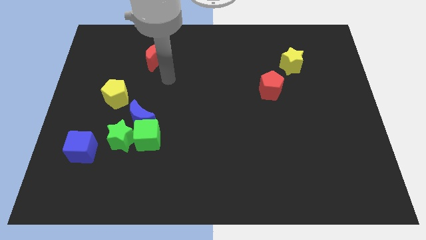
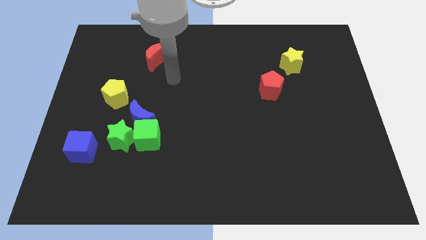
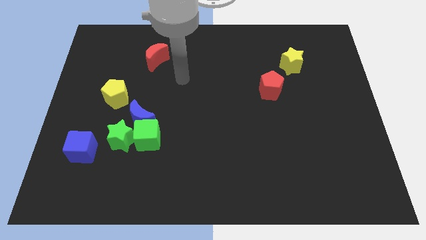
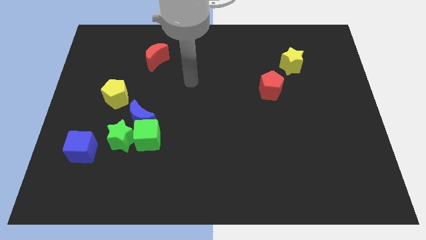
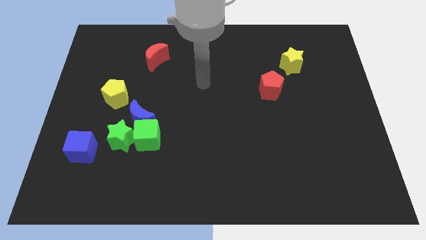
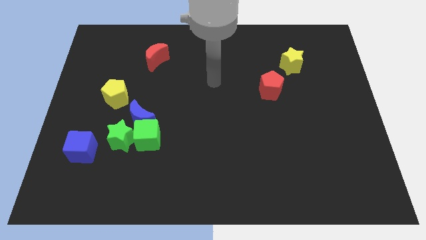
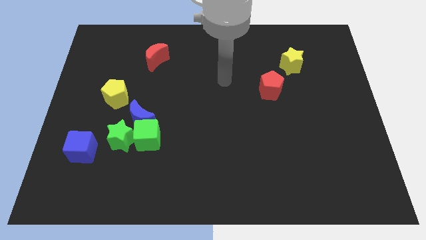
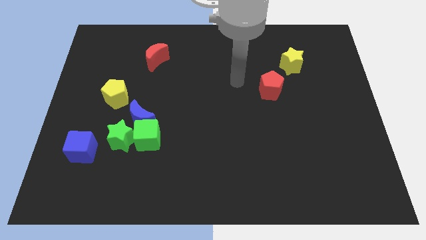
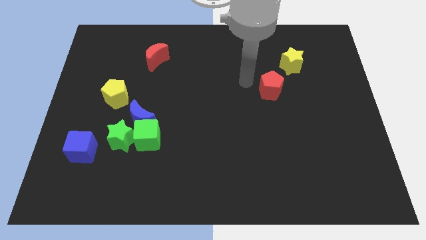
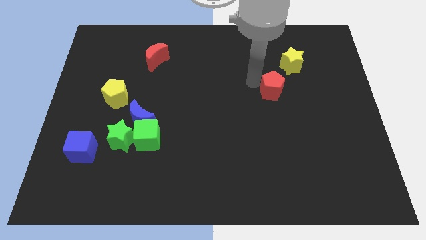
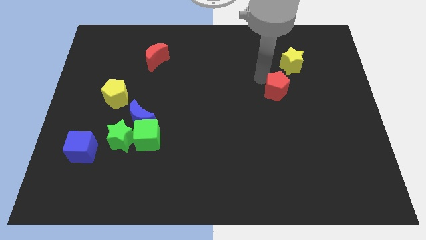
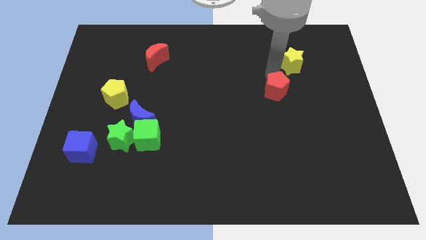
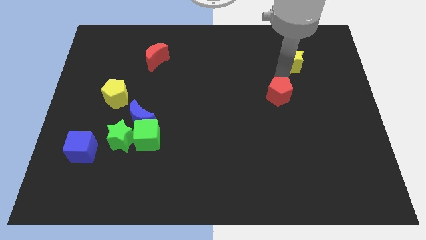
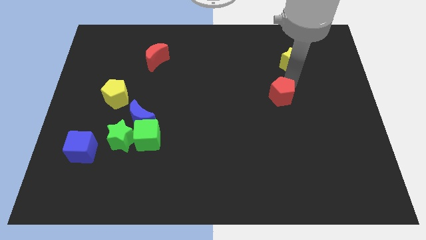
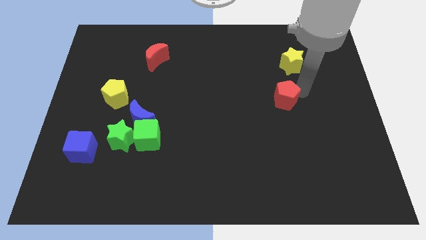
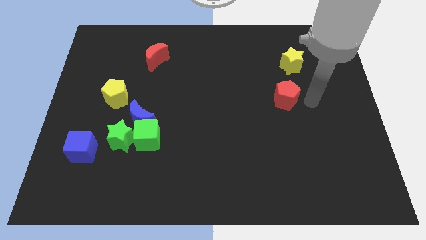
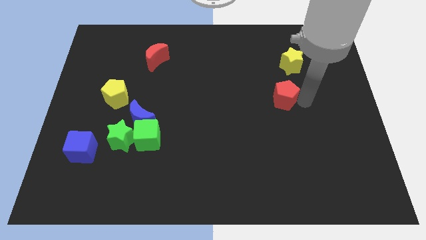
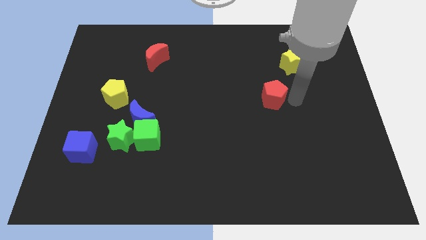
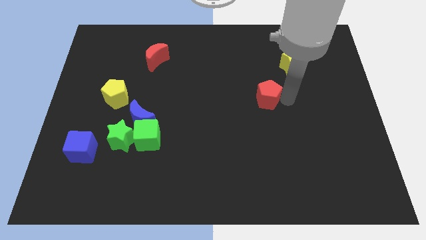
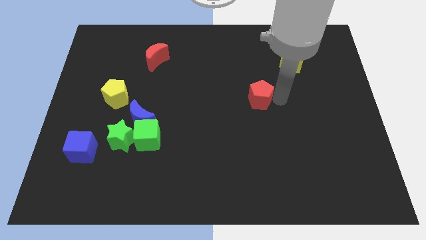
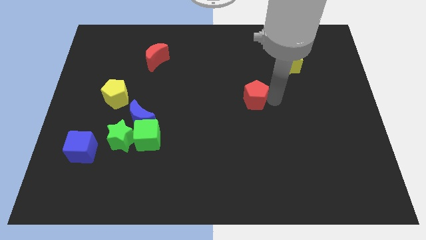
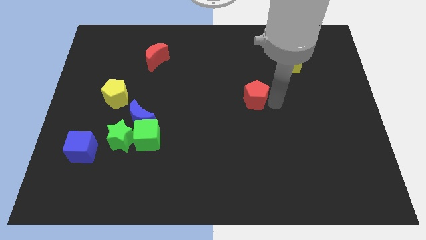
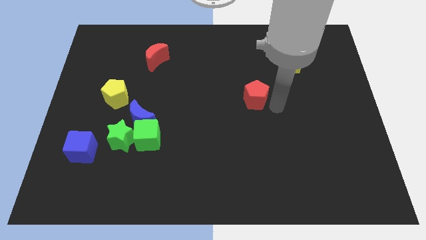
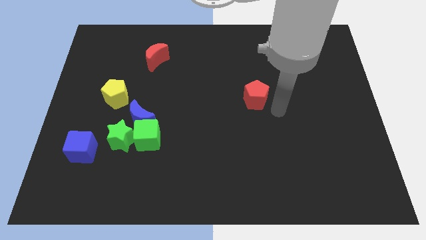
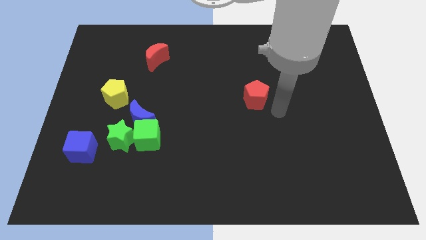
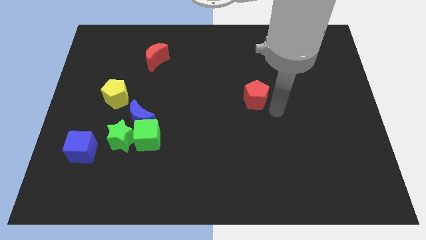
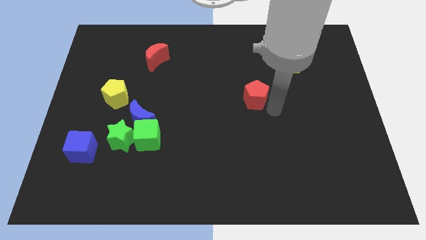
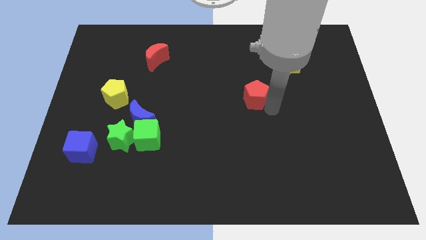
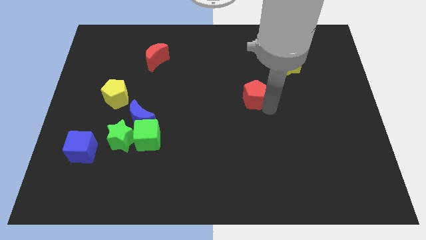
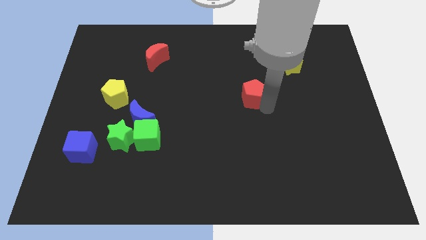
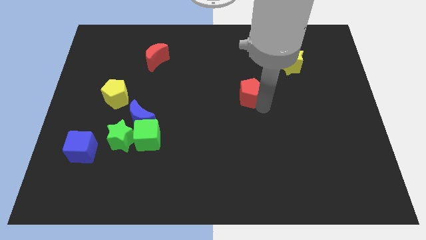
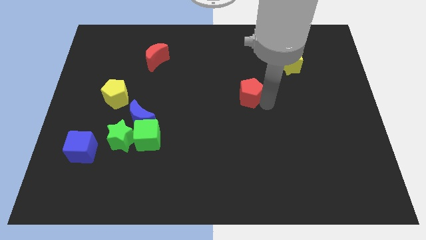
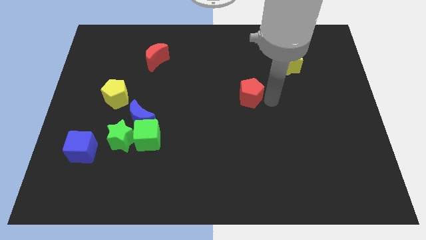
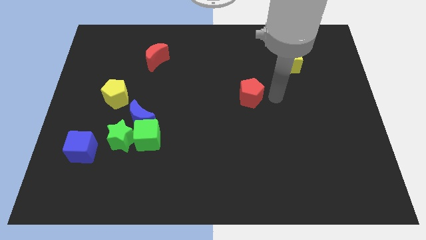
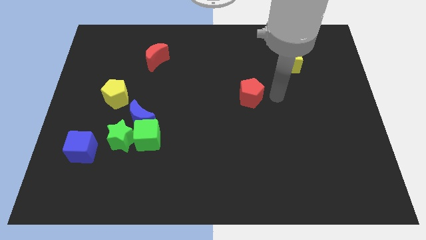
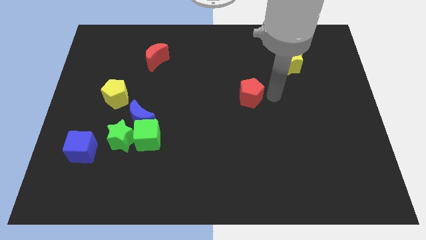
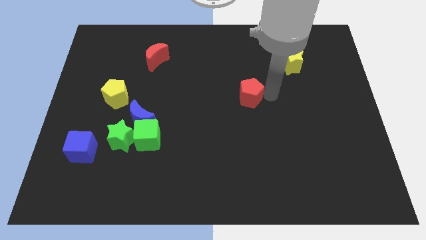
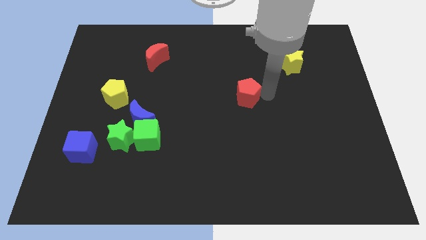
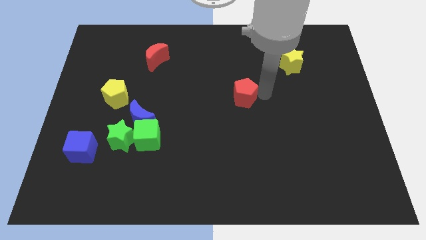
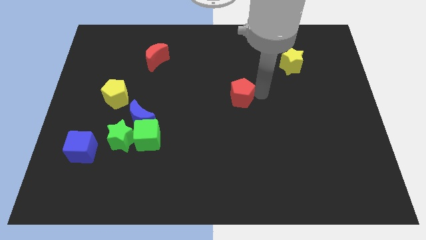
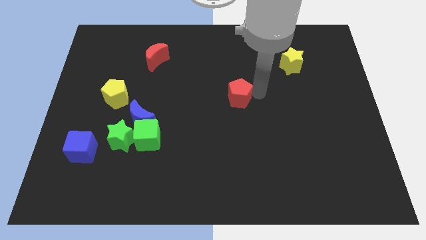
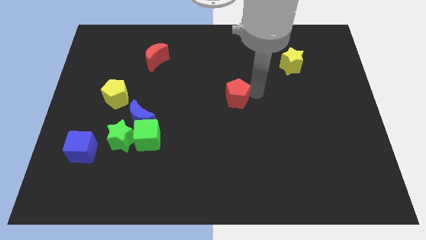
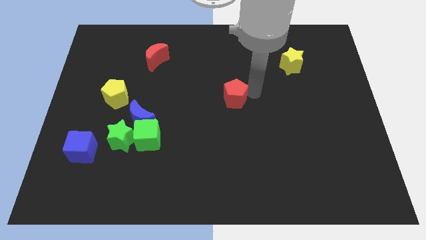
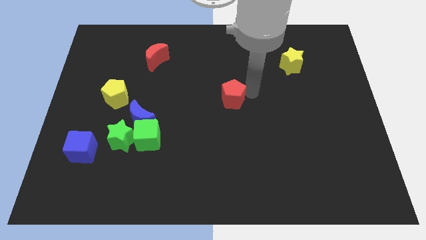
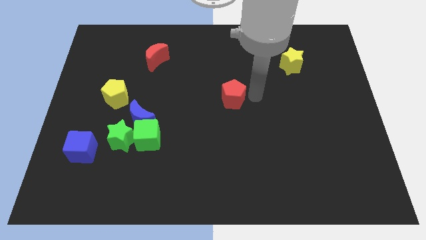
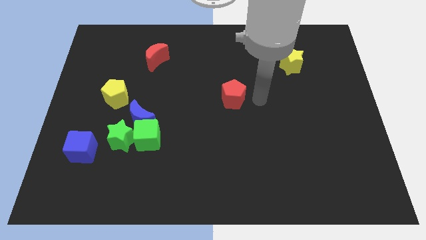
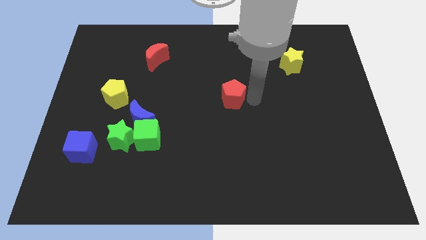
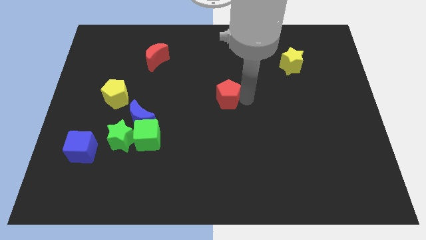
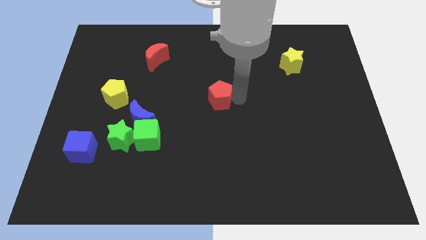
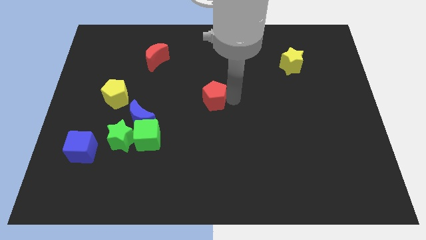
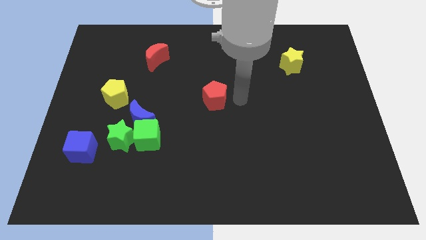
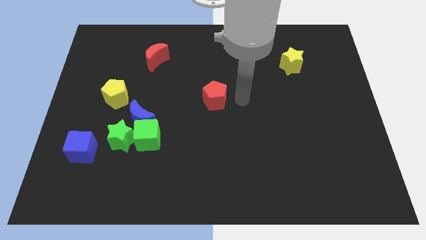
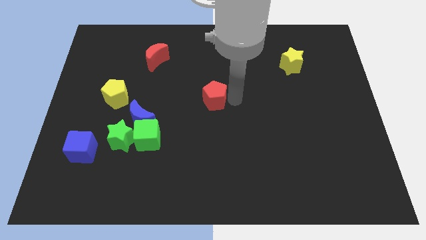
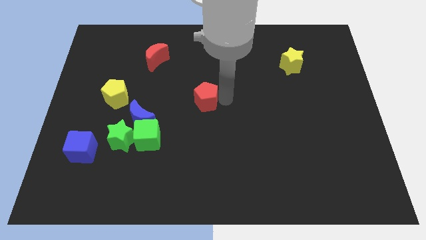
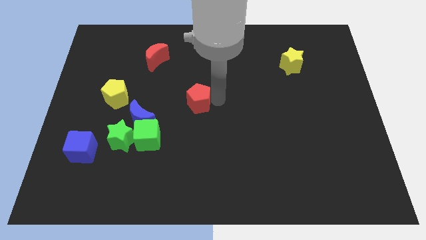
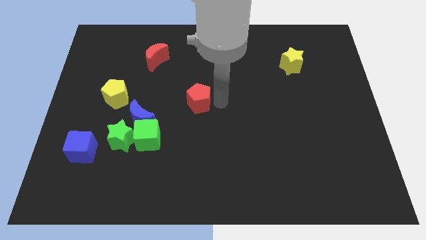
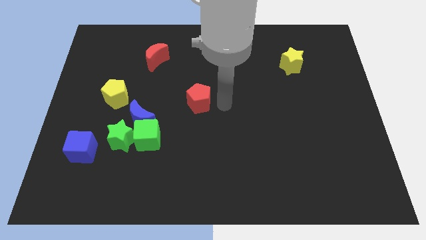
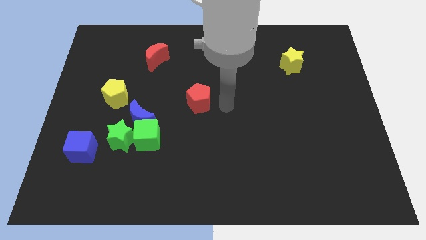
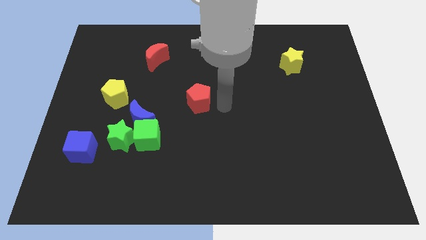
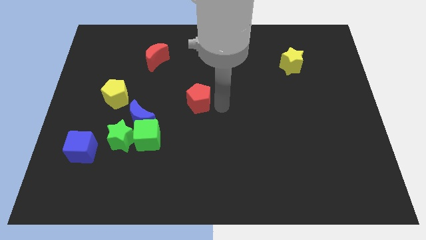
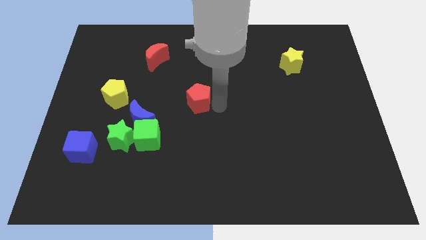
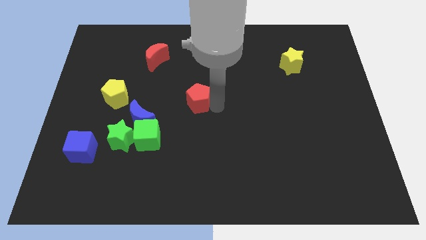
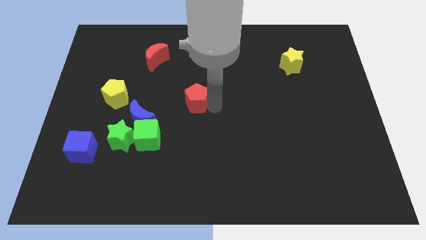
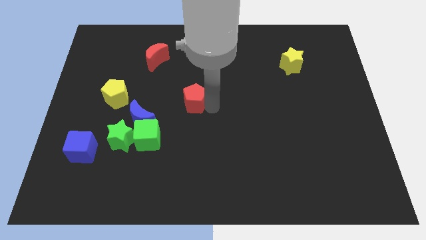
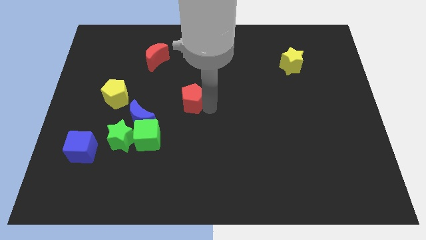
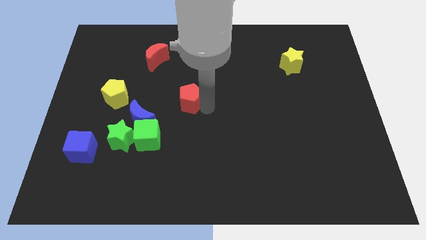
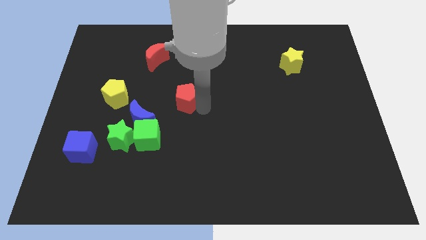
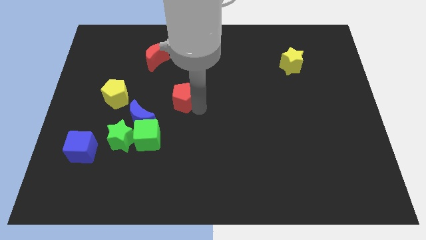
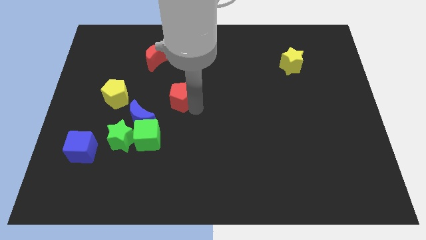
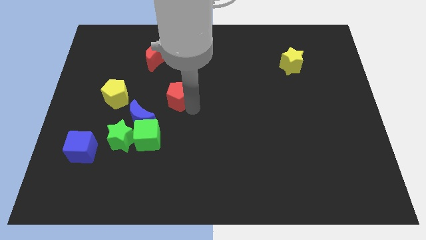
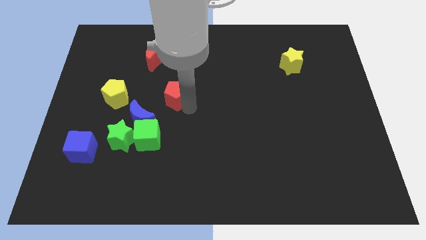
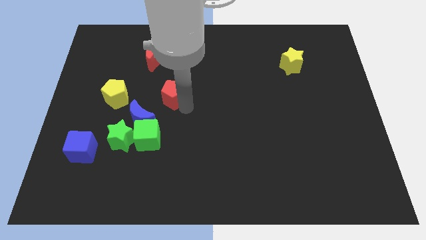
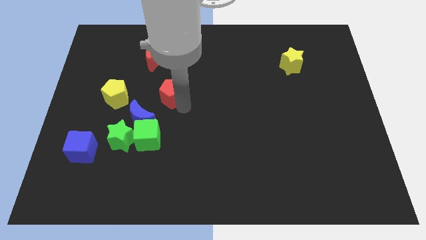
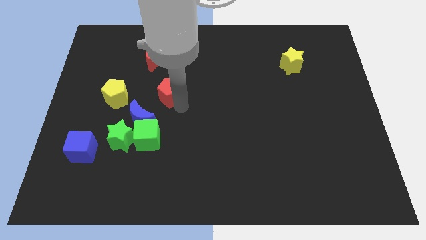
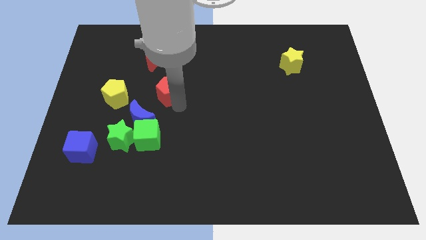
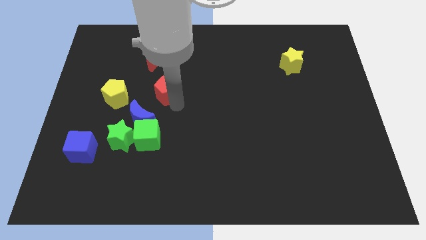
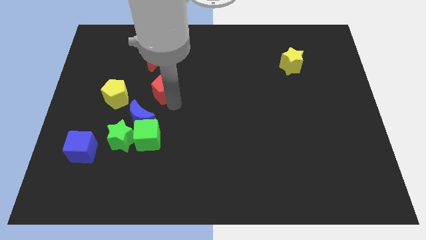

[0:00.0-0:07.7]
move the red pentagon to the top of the blue moon
